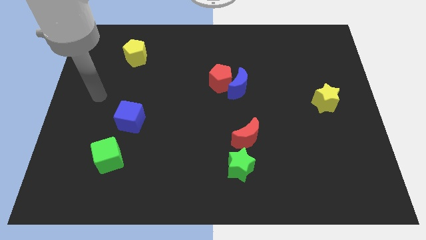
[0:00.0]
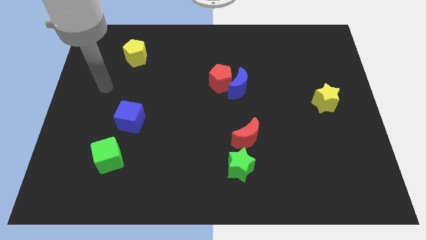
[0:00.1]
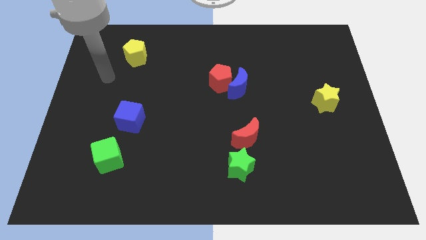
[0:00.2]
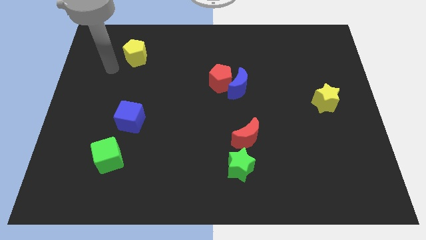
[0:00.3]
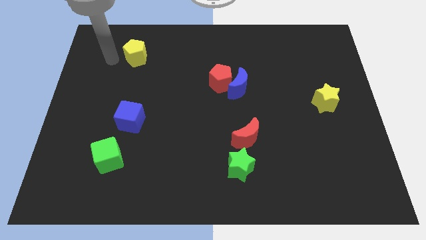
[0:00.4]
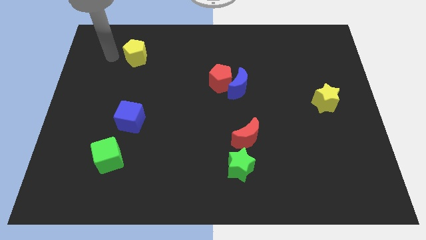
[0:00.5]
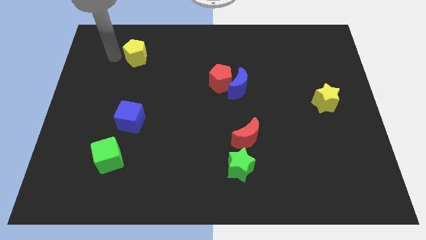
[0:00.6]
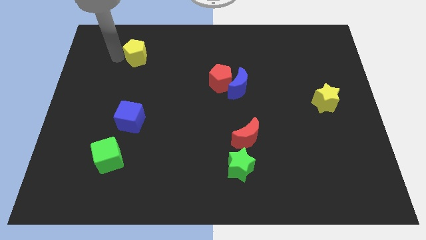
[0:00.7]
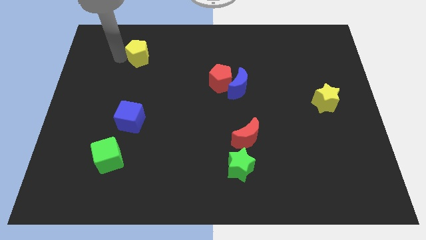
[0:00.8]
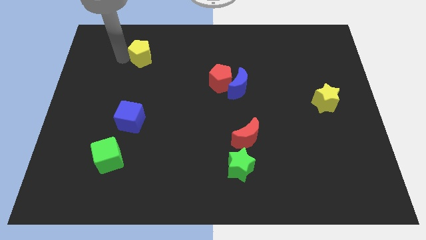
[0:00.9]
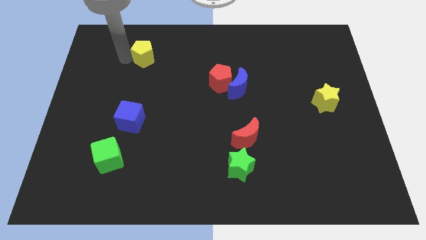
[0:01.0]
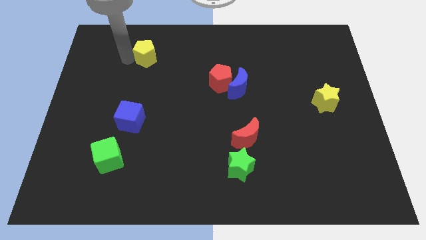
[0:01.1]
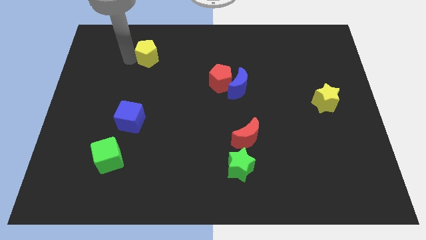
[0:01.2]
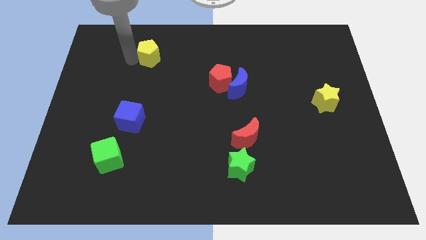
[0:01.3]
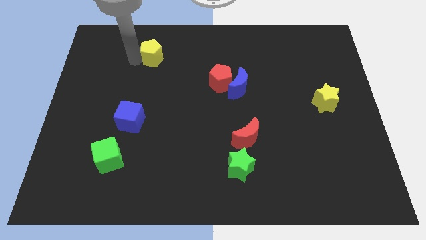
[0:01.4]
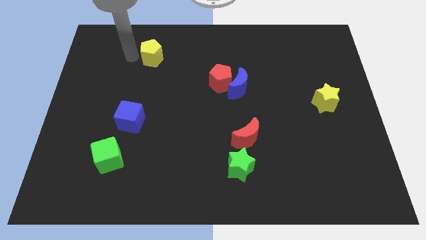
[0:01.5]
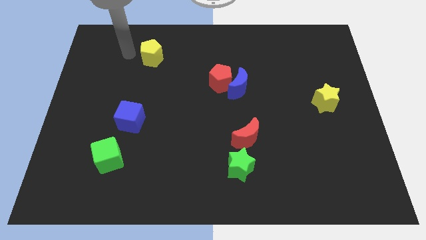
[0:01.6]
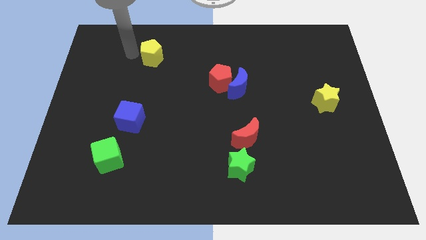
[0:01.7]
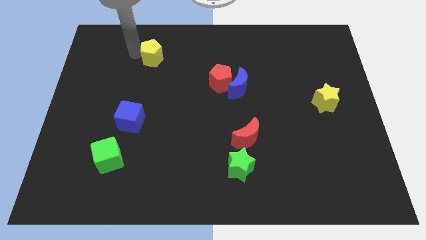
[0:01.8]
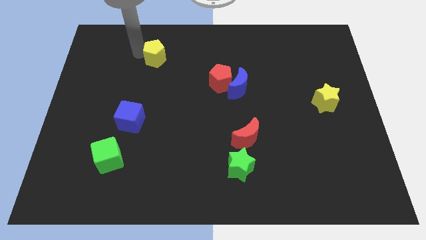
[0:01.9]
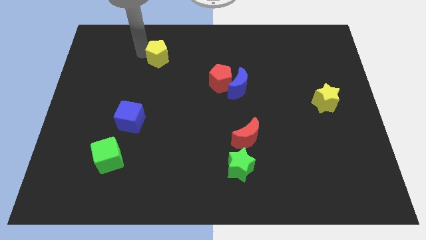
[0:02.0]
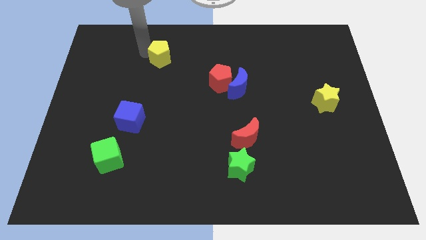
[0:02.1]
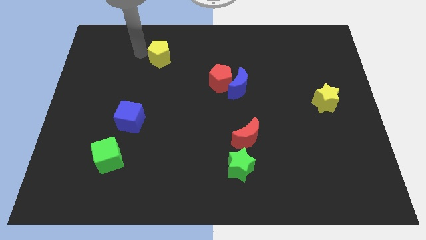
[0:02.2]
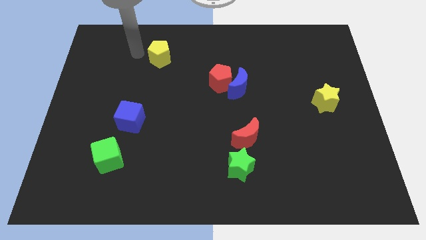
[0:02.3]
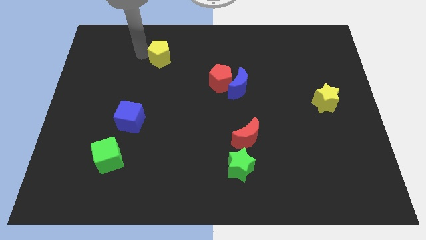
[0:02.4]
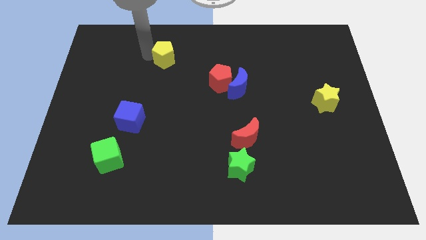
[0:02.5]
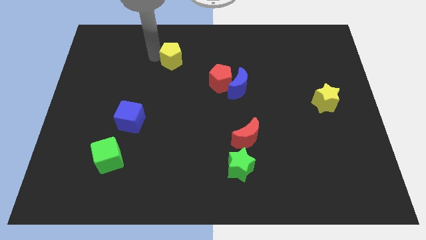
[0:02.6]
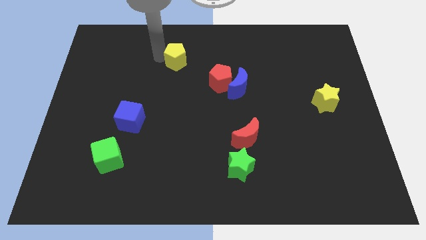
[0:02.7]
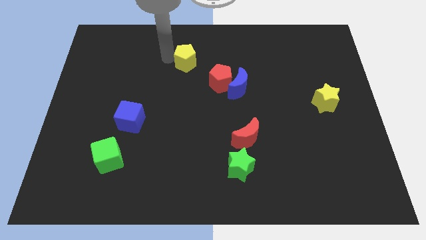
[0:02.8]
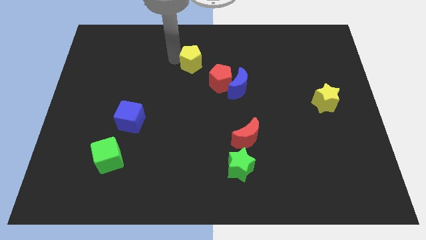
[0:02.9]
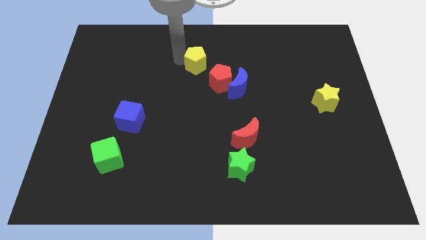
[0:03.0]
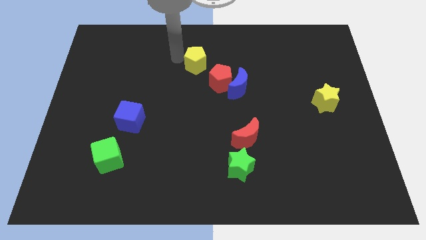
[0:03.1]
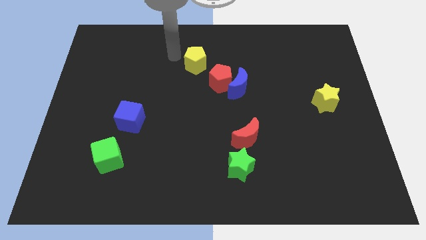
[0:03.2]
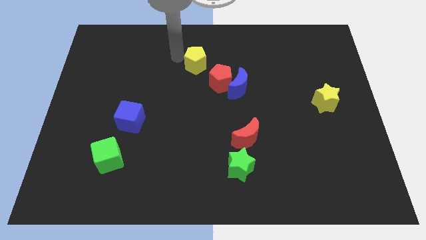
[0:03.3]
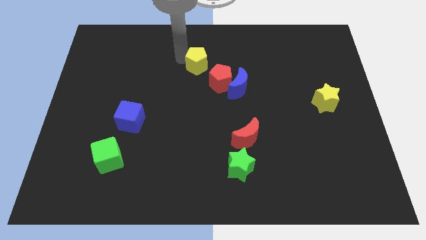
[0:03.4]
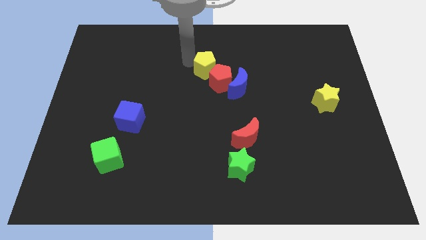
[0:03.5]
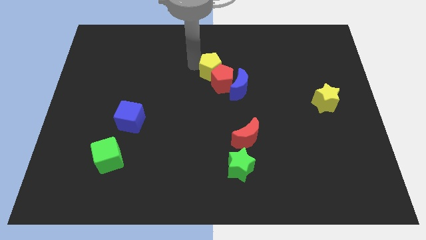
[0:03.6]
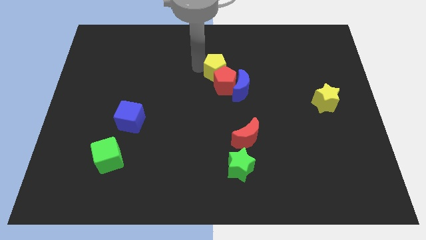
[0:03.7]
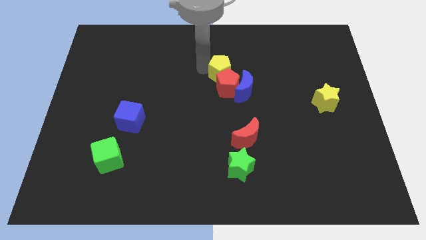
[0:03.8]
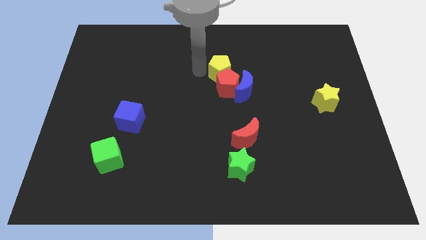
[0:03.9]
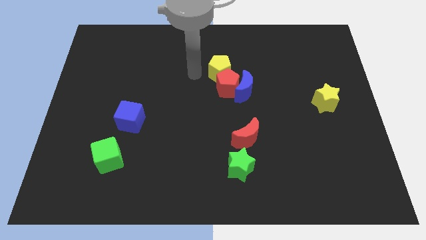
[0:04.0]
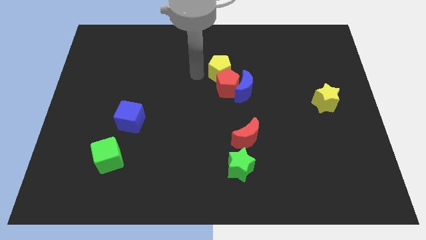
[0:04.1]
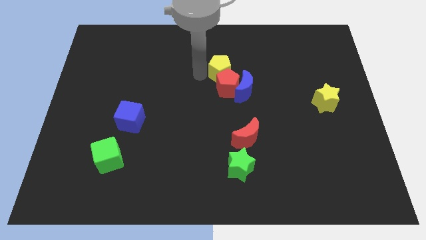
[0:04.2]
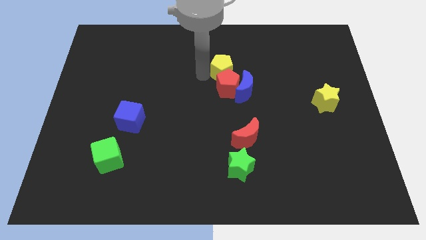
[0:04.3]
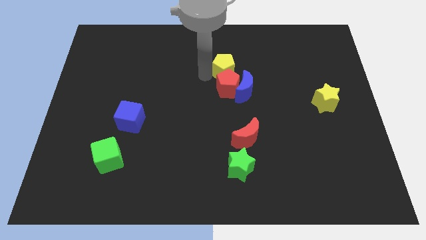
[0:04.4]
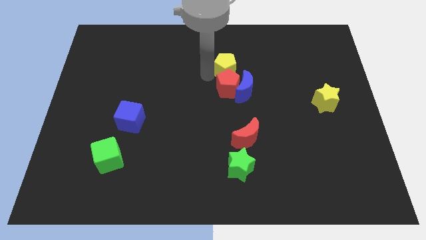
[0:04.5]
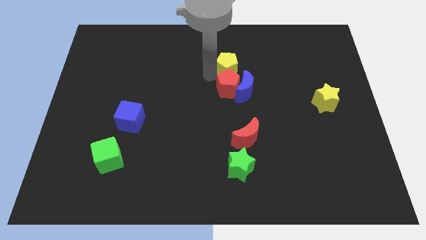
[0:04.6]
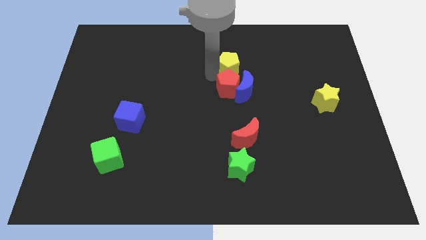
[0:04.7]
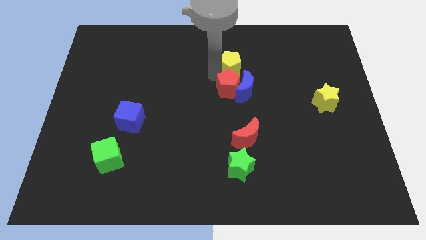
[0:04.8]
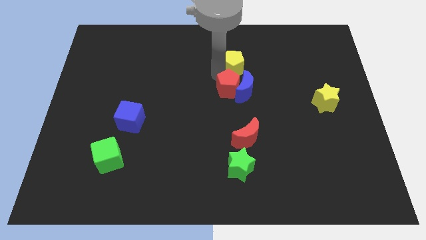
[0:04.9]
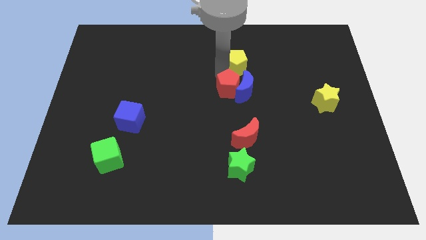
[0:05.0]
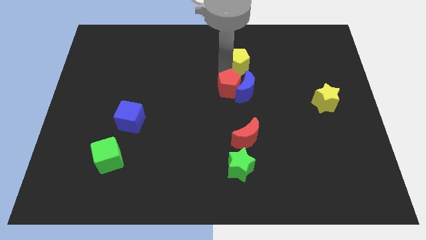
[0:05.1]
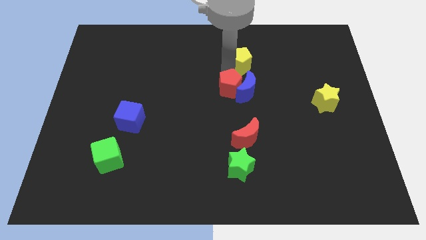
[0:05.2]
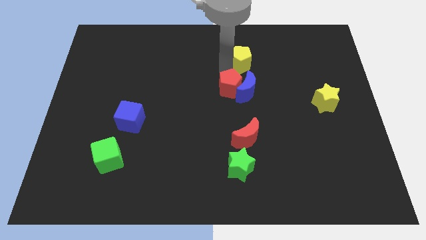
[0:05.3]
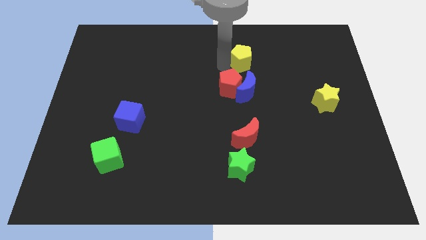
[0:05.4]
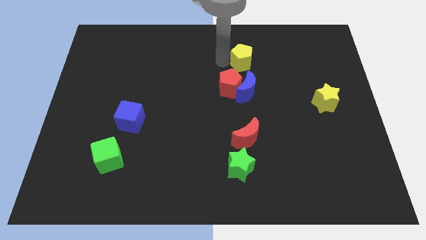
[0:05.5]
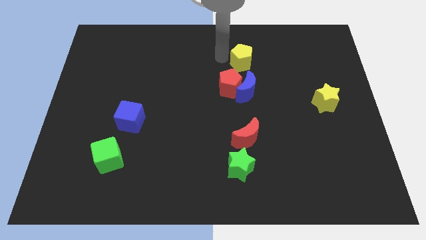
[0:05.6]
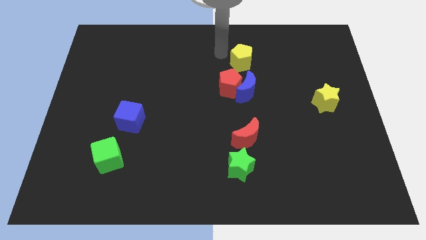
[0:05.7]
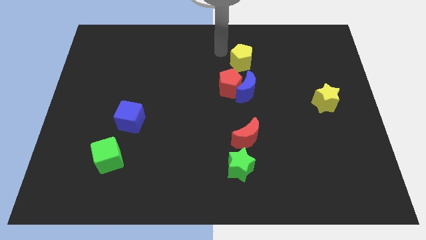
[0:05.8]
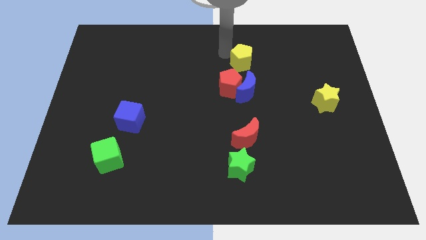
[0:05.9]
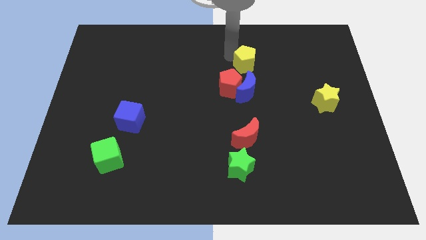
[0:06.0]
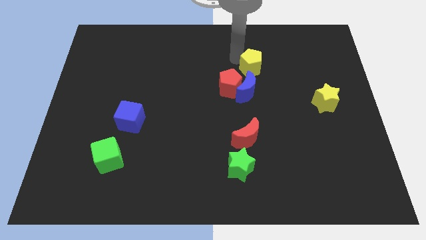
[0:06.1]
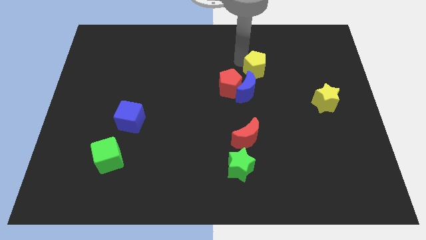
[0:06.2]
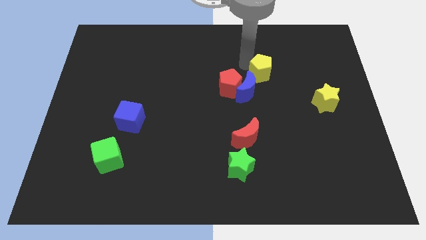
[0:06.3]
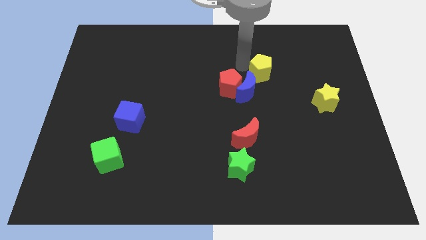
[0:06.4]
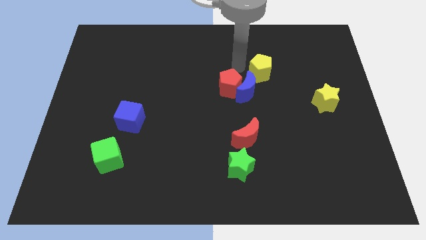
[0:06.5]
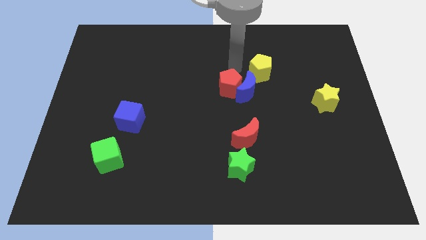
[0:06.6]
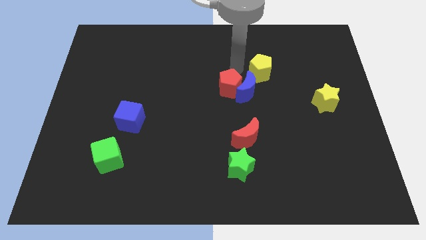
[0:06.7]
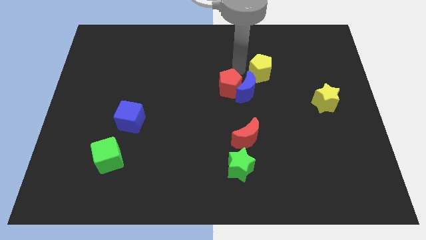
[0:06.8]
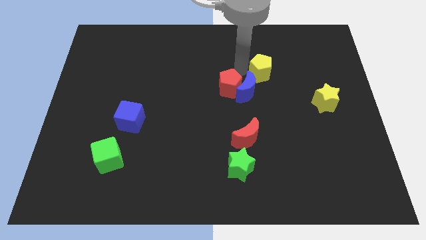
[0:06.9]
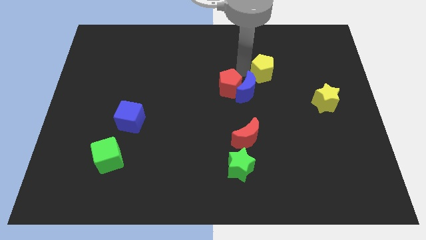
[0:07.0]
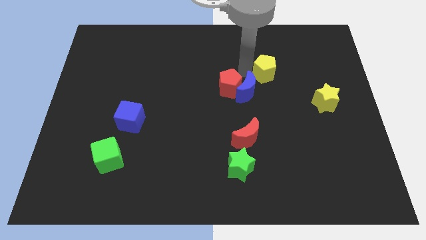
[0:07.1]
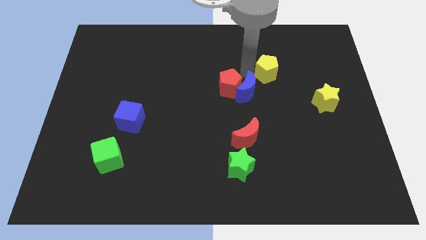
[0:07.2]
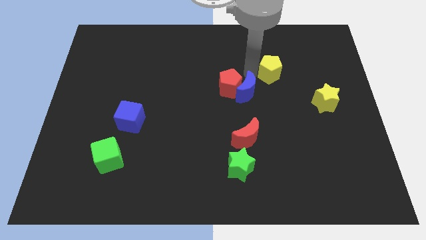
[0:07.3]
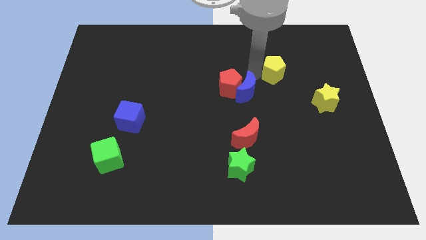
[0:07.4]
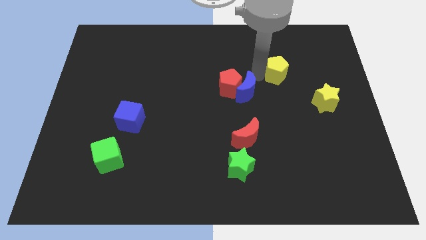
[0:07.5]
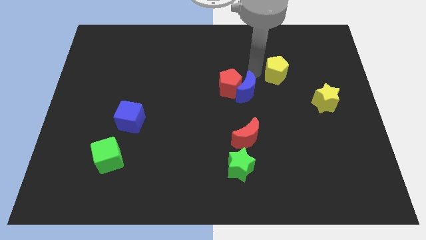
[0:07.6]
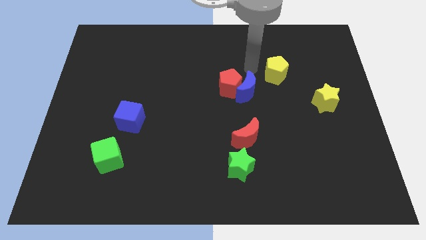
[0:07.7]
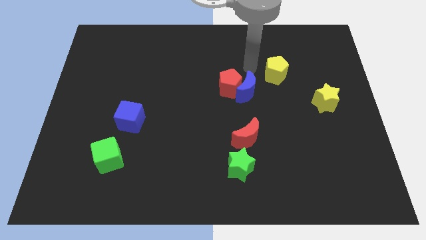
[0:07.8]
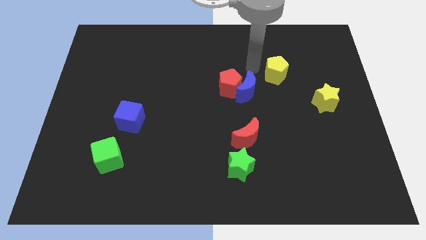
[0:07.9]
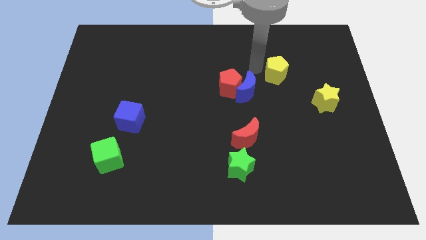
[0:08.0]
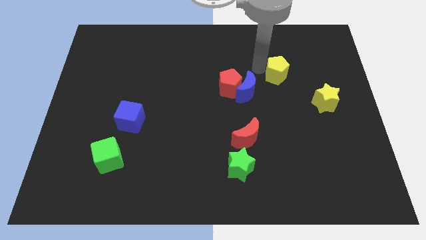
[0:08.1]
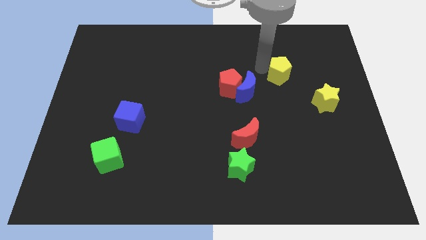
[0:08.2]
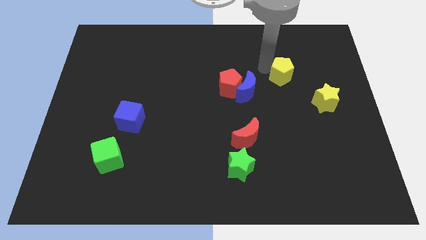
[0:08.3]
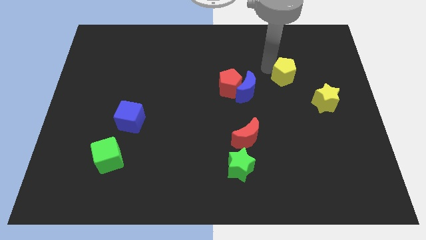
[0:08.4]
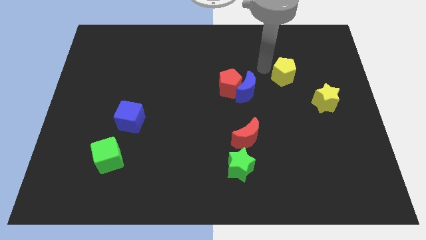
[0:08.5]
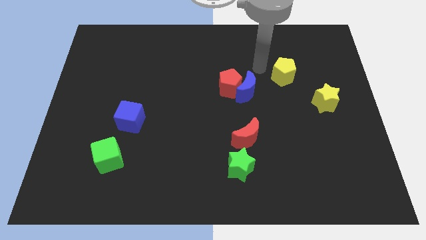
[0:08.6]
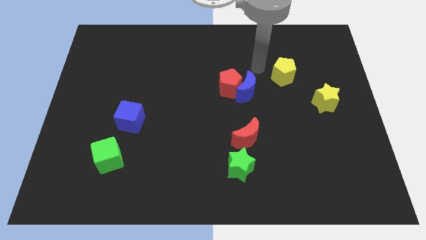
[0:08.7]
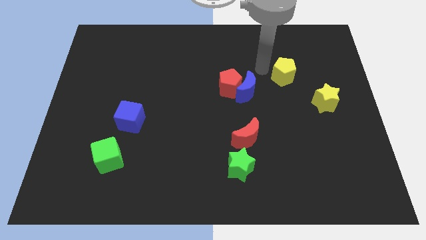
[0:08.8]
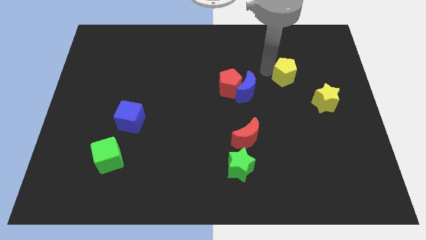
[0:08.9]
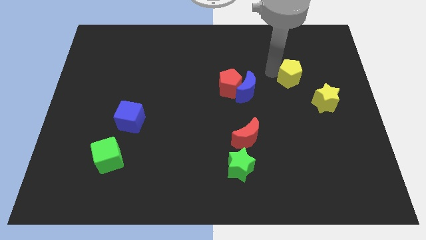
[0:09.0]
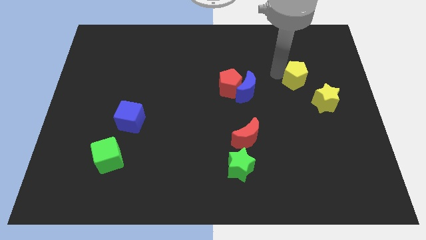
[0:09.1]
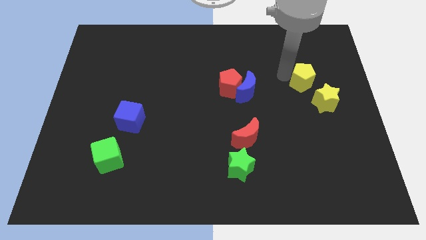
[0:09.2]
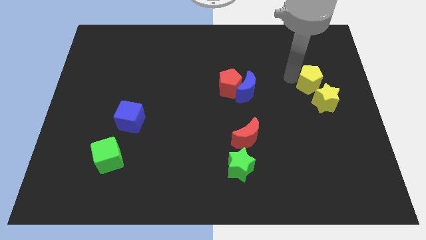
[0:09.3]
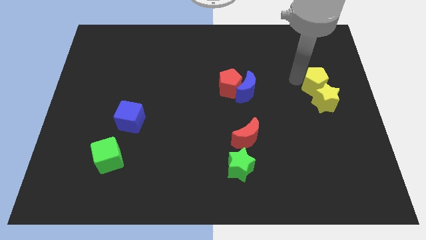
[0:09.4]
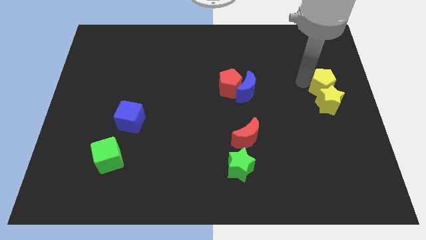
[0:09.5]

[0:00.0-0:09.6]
slide the yellow pentagon to the right side
